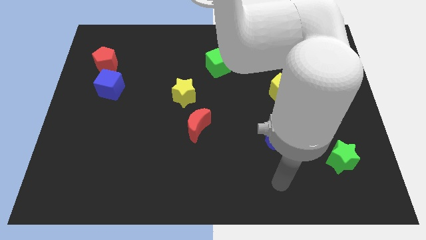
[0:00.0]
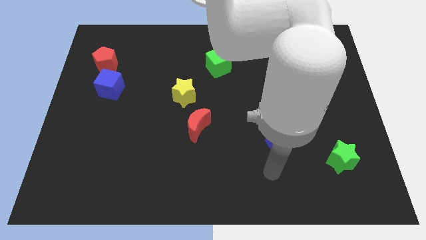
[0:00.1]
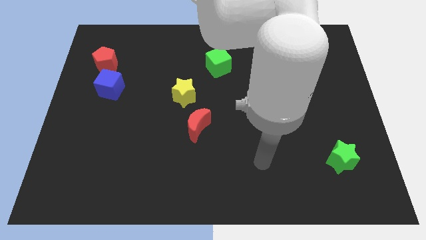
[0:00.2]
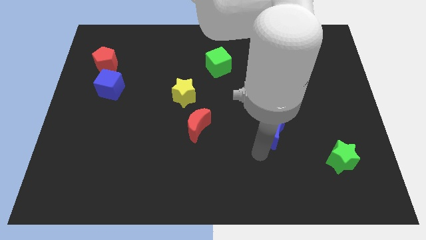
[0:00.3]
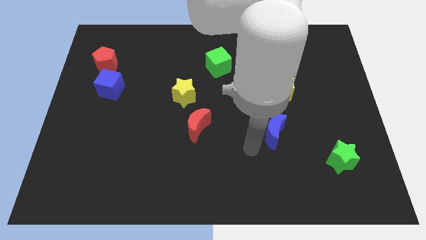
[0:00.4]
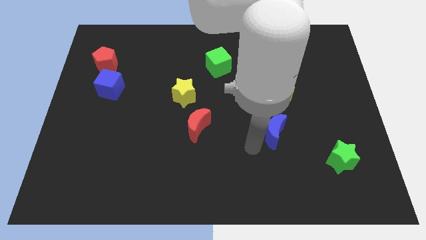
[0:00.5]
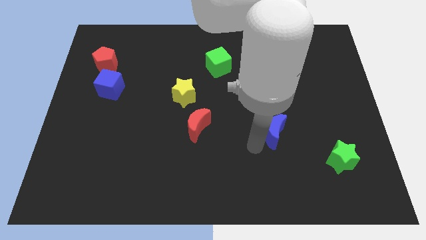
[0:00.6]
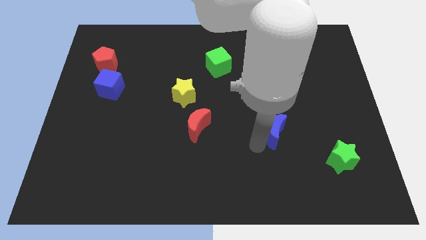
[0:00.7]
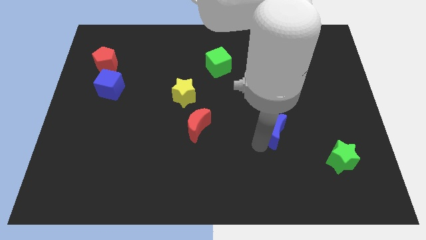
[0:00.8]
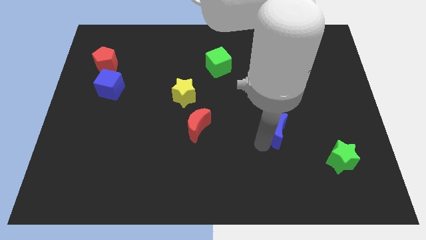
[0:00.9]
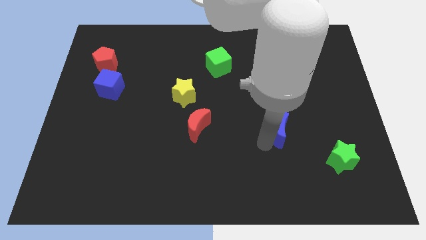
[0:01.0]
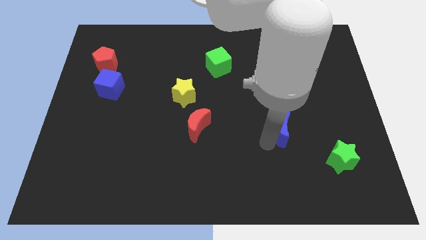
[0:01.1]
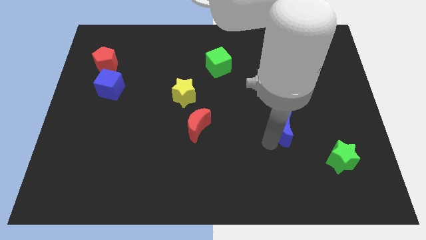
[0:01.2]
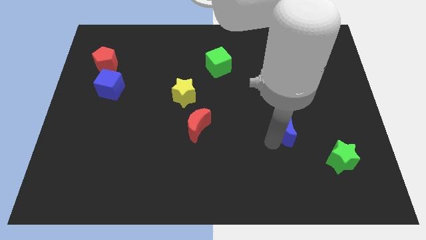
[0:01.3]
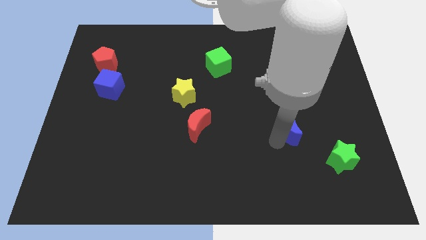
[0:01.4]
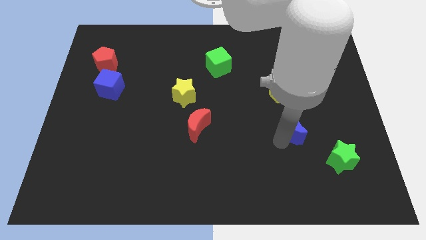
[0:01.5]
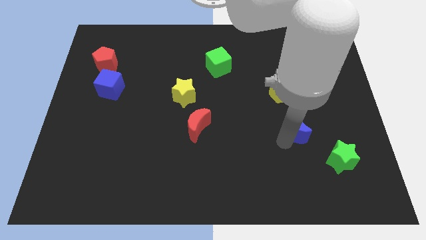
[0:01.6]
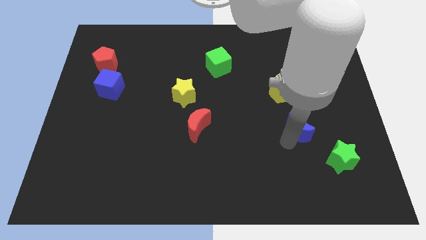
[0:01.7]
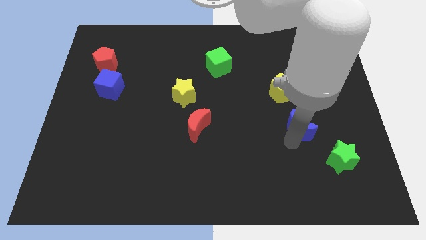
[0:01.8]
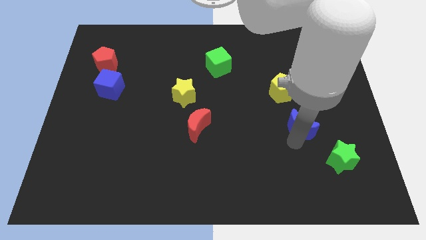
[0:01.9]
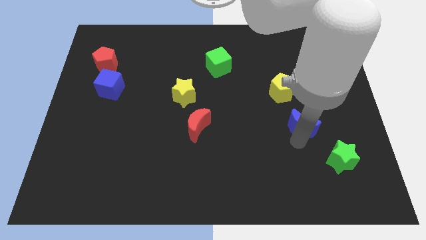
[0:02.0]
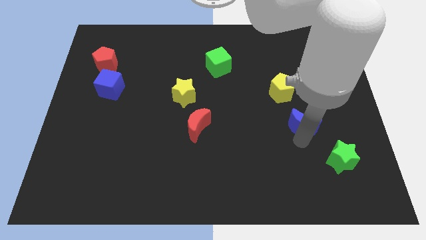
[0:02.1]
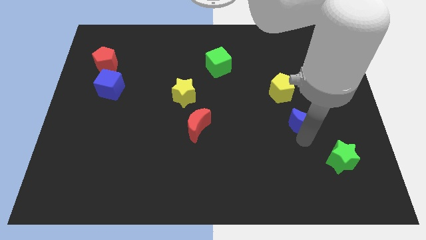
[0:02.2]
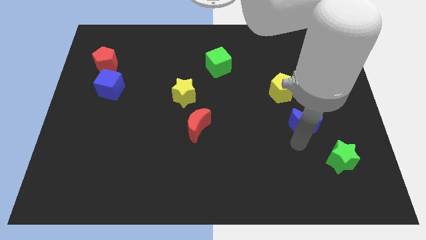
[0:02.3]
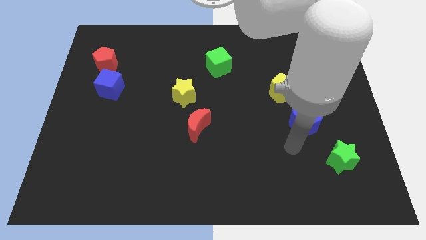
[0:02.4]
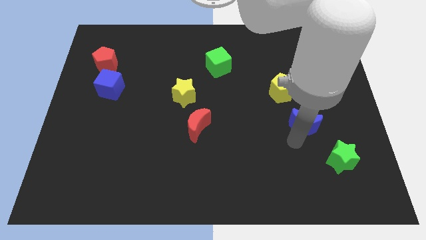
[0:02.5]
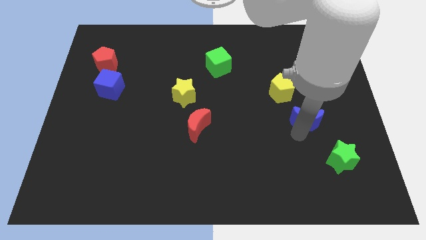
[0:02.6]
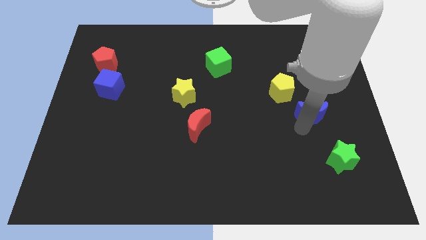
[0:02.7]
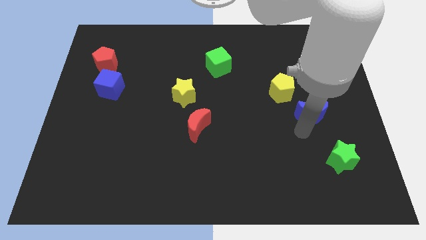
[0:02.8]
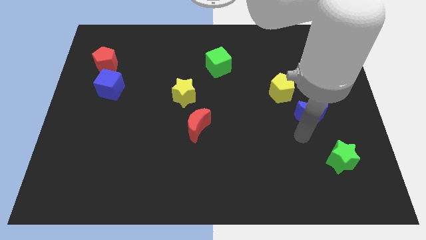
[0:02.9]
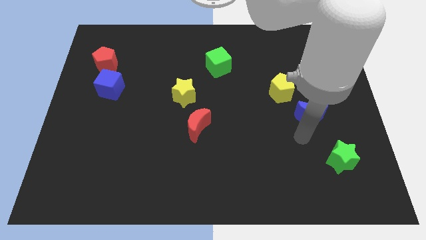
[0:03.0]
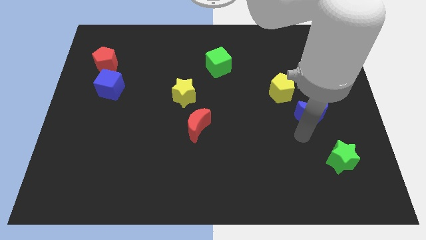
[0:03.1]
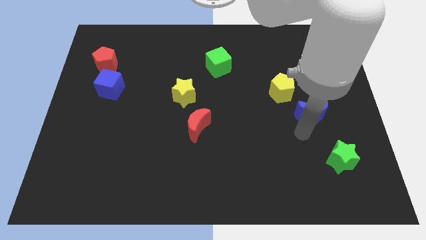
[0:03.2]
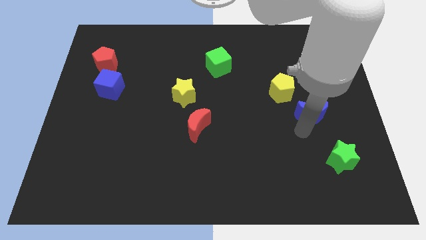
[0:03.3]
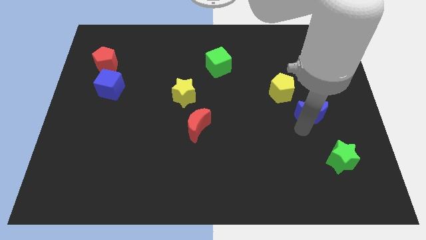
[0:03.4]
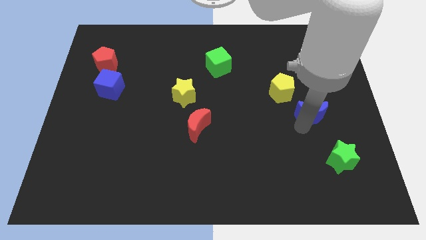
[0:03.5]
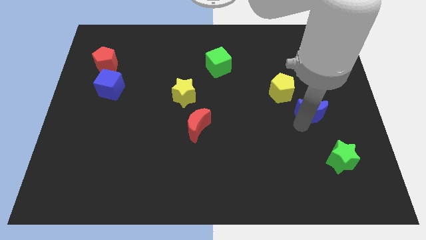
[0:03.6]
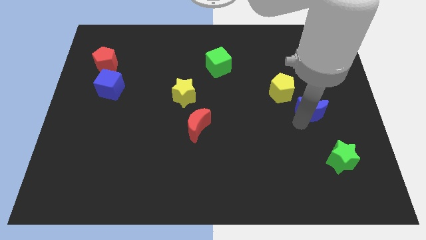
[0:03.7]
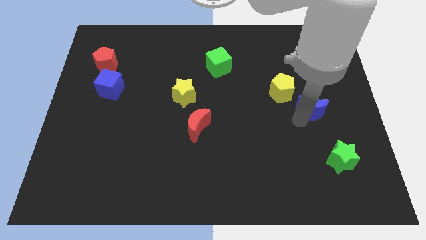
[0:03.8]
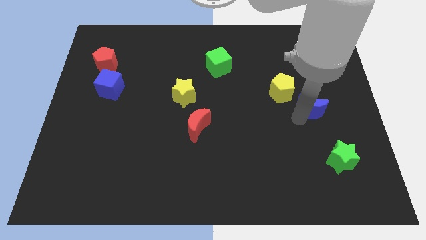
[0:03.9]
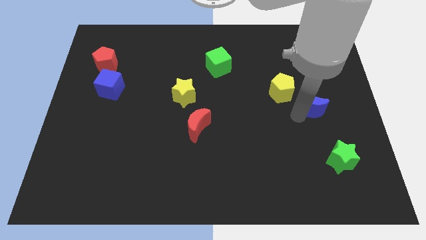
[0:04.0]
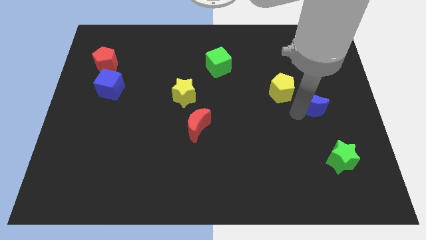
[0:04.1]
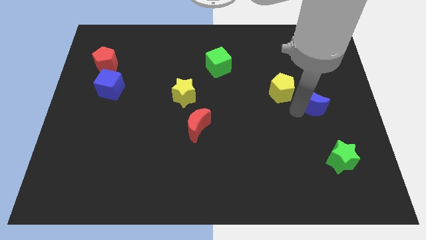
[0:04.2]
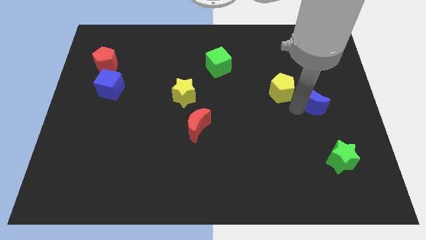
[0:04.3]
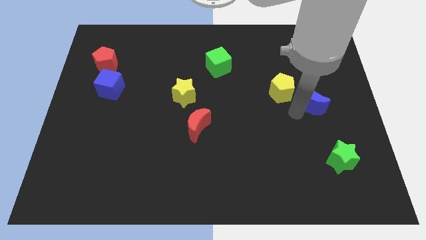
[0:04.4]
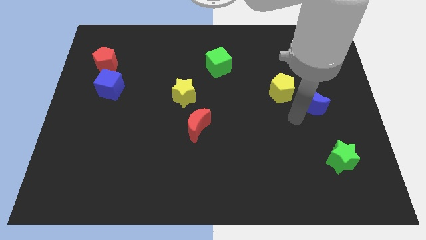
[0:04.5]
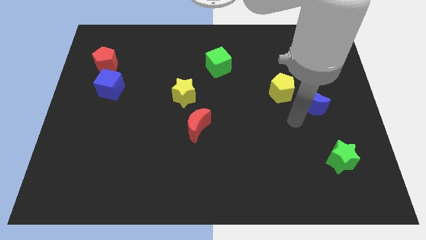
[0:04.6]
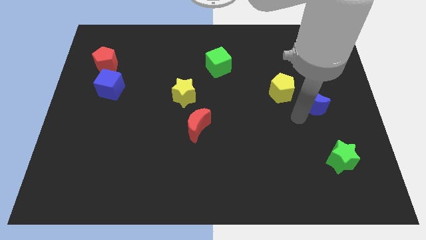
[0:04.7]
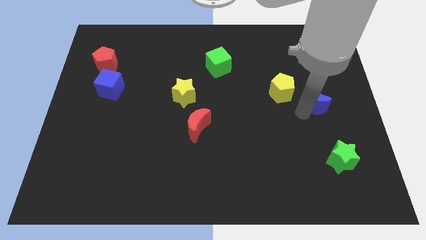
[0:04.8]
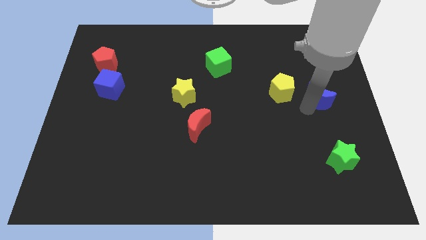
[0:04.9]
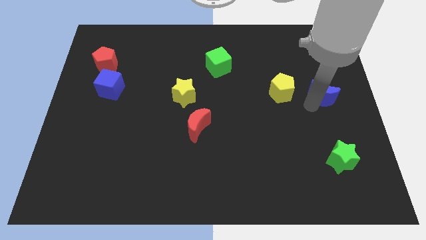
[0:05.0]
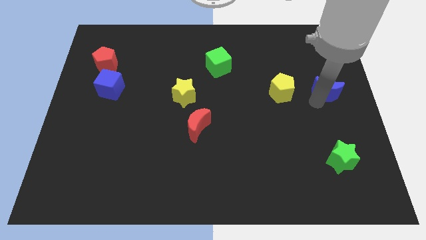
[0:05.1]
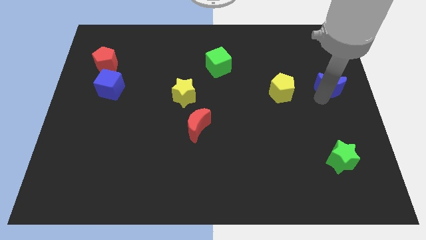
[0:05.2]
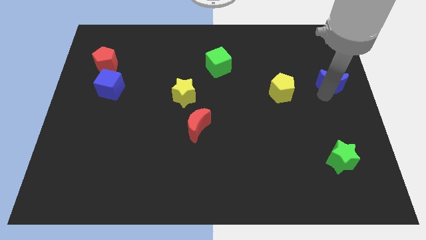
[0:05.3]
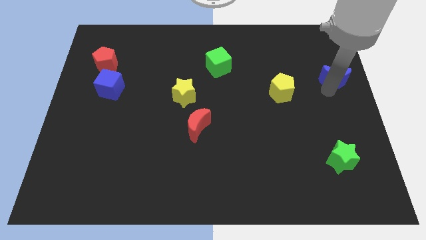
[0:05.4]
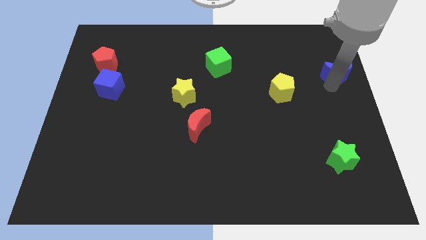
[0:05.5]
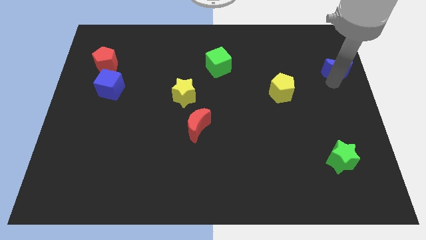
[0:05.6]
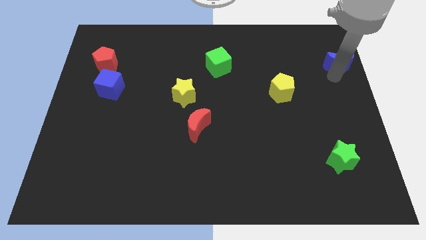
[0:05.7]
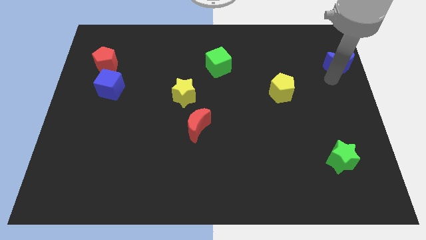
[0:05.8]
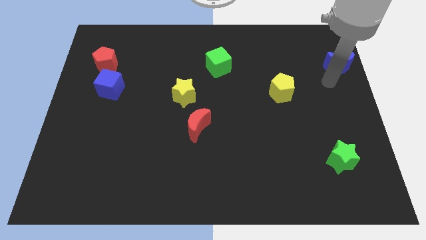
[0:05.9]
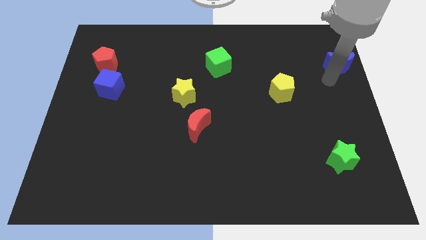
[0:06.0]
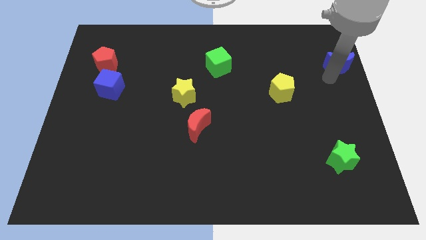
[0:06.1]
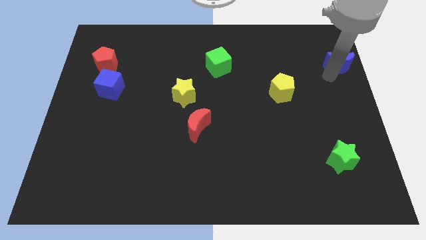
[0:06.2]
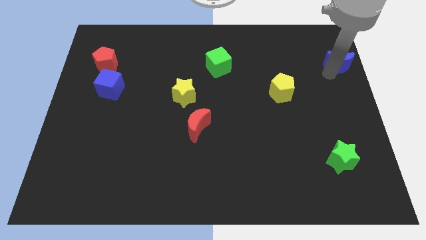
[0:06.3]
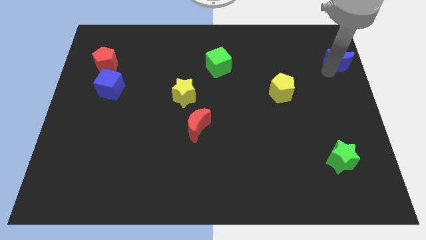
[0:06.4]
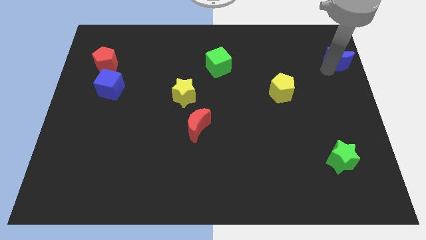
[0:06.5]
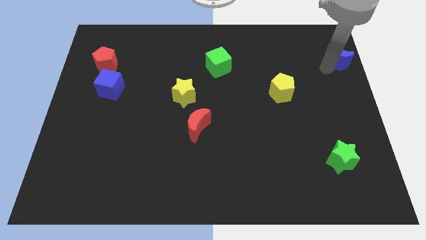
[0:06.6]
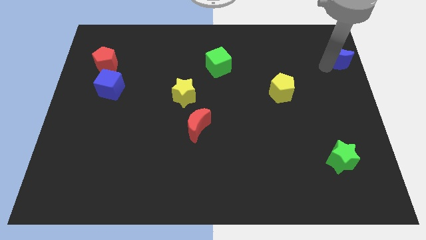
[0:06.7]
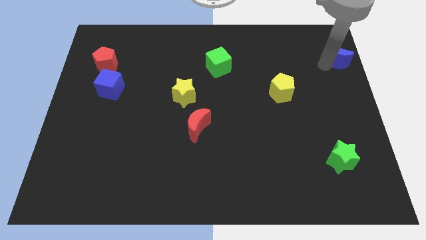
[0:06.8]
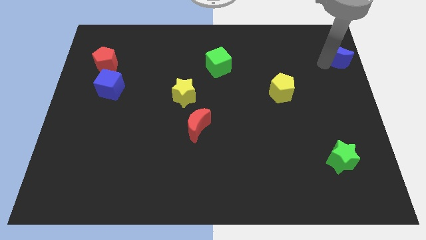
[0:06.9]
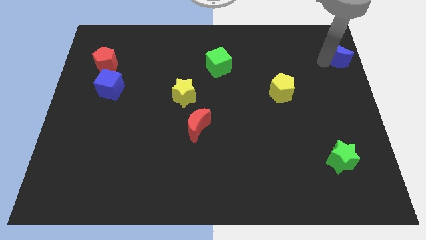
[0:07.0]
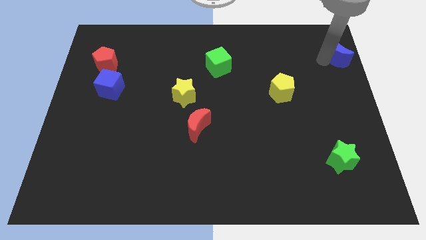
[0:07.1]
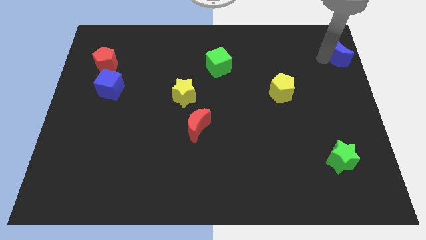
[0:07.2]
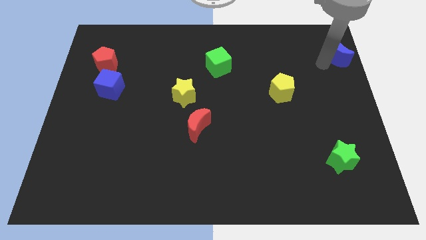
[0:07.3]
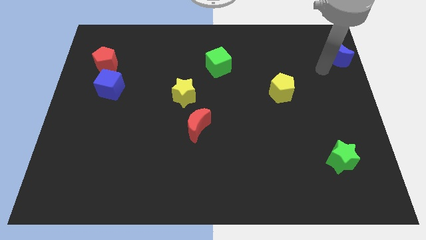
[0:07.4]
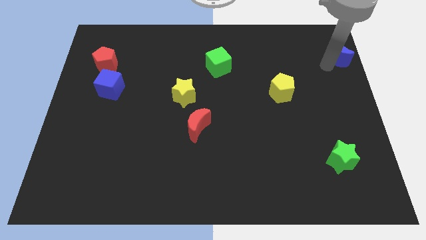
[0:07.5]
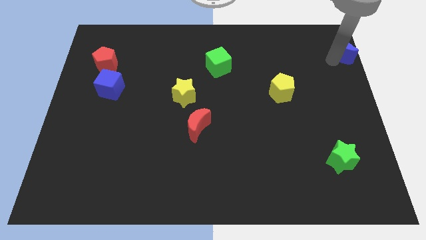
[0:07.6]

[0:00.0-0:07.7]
move the blue moon to the upper right corner
